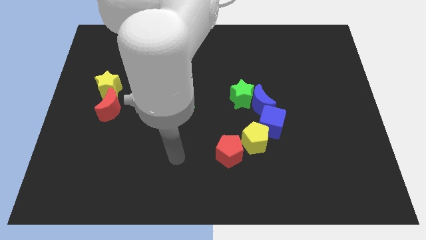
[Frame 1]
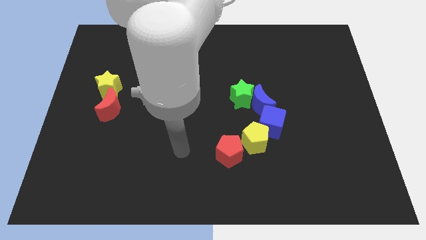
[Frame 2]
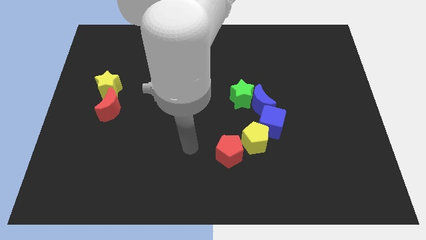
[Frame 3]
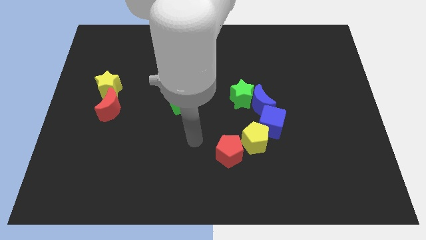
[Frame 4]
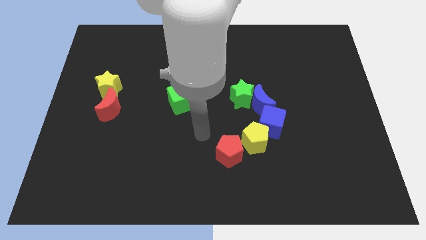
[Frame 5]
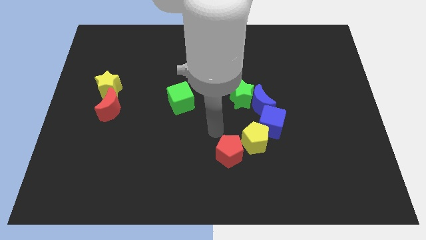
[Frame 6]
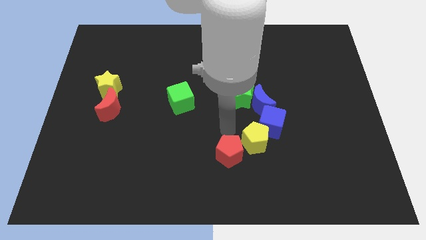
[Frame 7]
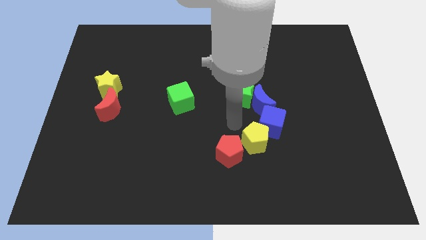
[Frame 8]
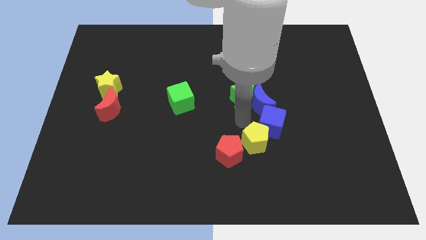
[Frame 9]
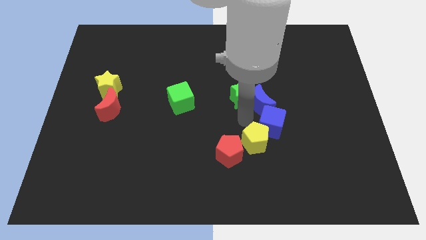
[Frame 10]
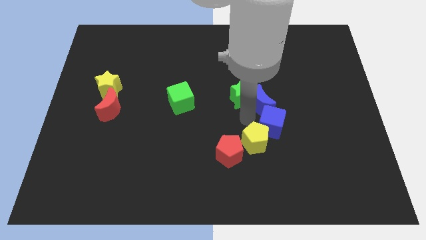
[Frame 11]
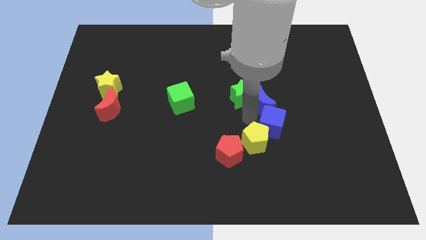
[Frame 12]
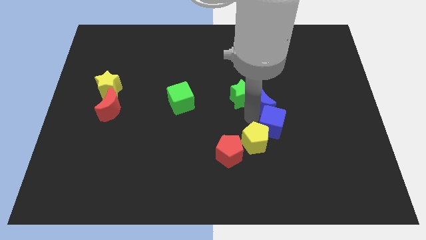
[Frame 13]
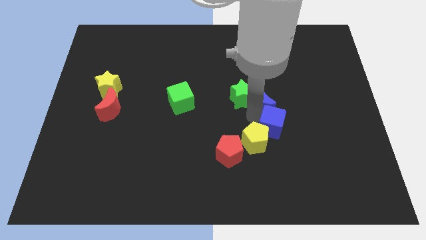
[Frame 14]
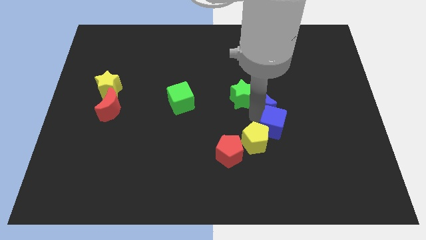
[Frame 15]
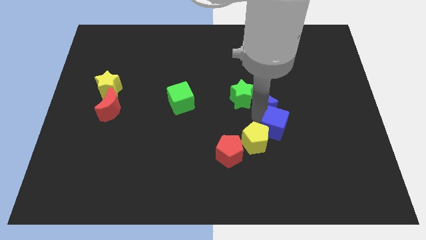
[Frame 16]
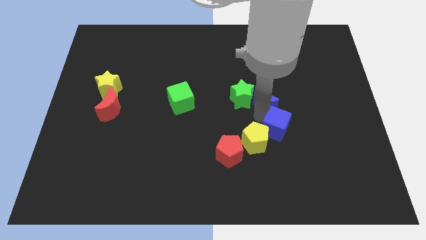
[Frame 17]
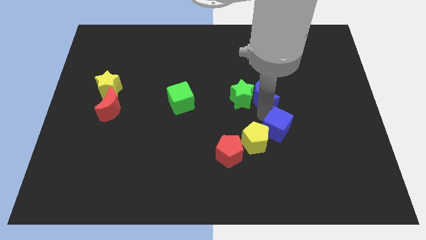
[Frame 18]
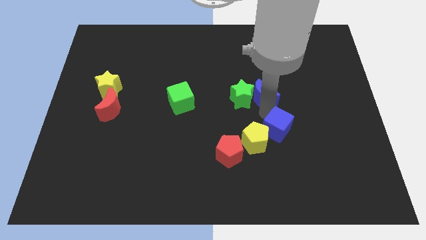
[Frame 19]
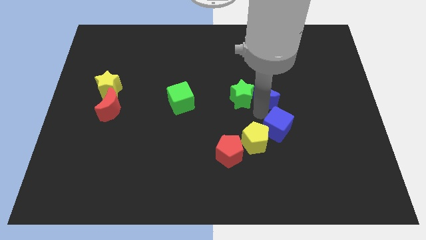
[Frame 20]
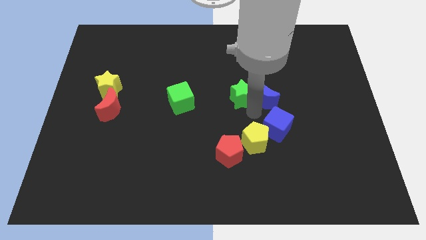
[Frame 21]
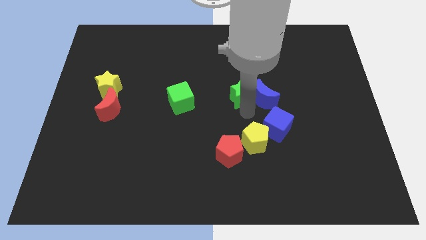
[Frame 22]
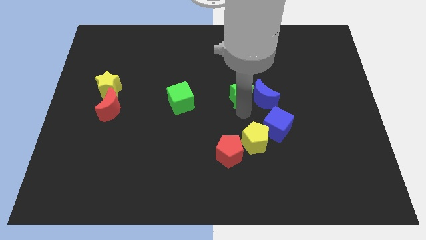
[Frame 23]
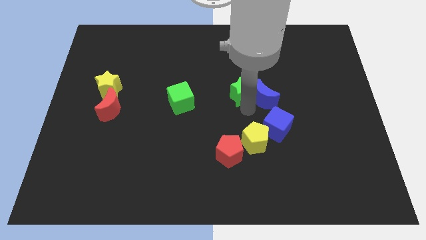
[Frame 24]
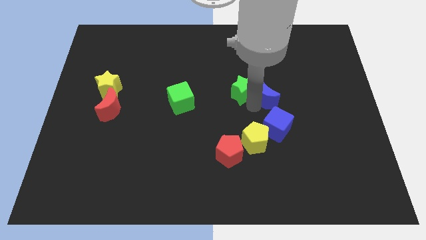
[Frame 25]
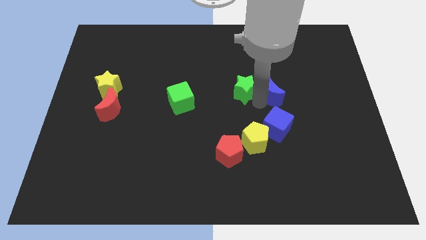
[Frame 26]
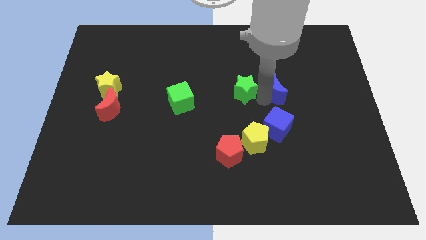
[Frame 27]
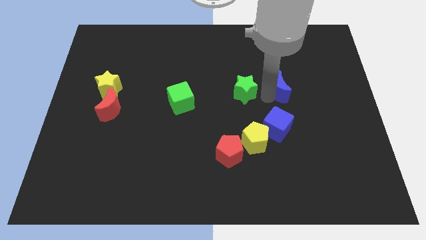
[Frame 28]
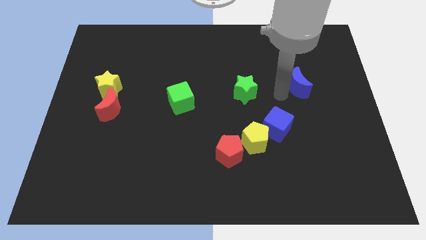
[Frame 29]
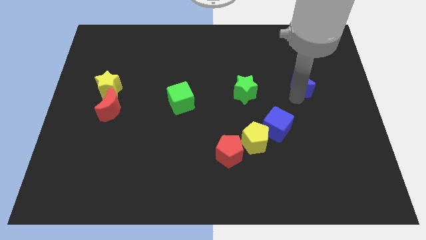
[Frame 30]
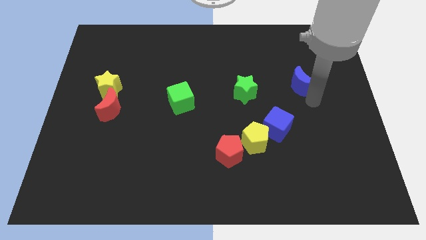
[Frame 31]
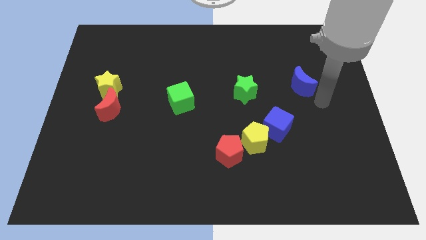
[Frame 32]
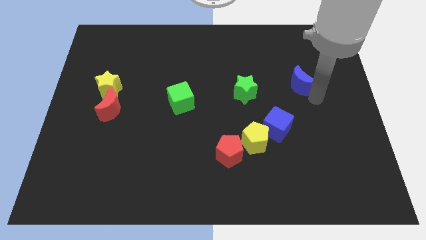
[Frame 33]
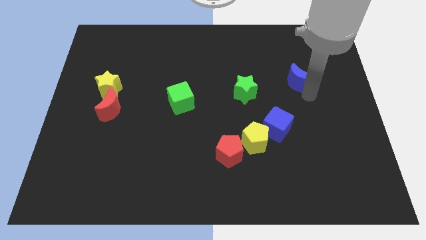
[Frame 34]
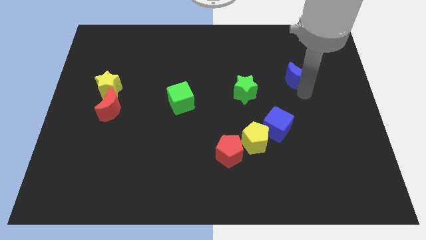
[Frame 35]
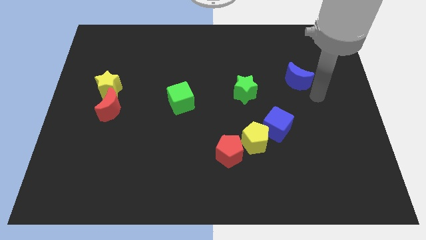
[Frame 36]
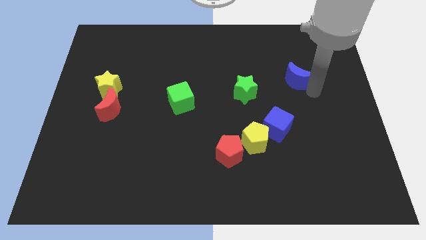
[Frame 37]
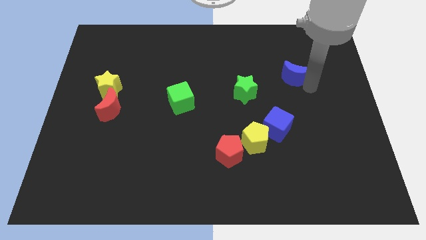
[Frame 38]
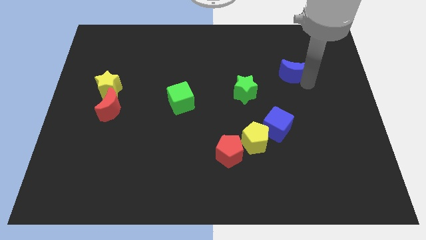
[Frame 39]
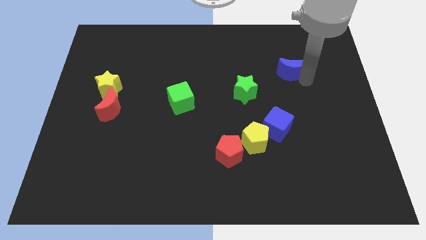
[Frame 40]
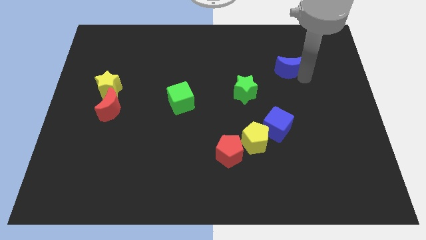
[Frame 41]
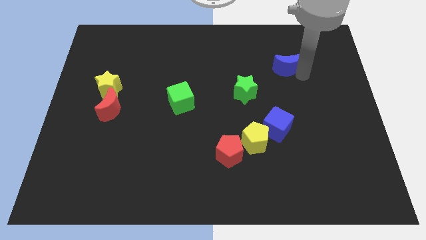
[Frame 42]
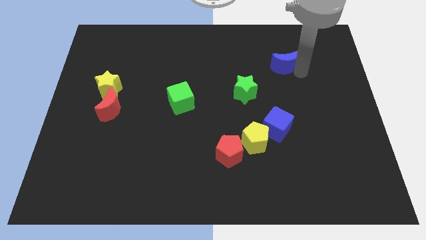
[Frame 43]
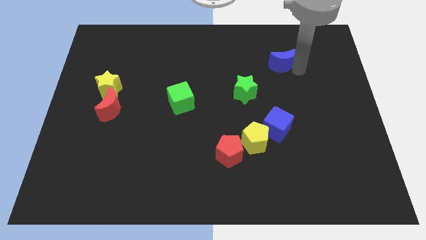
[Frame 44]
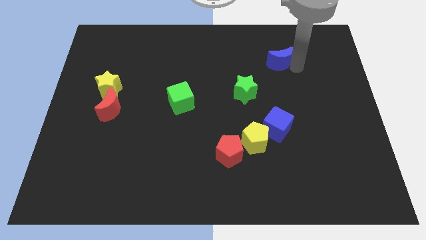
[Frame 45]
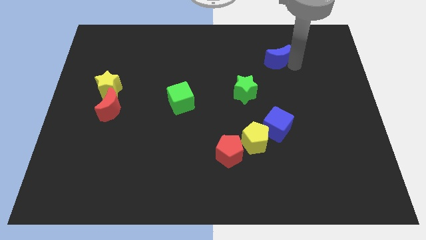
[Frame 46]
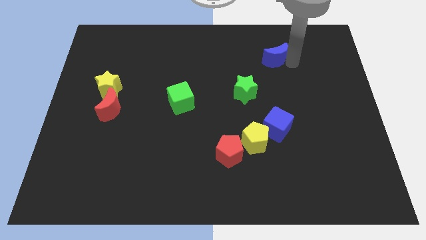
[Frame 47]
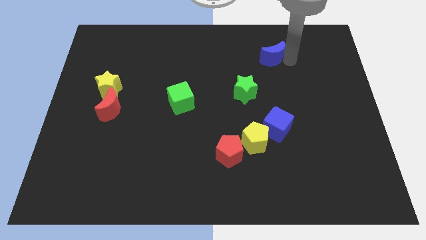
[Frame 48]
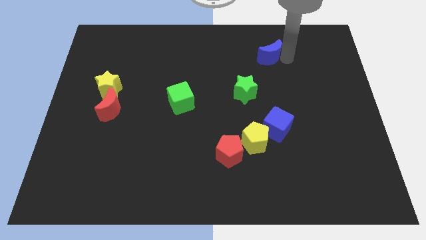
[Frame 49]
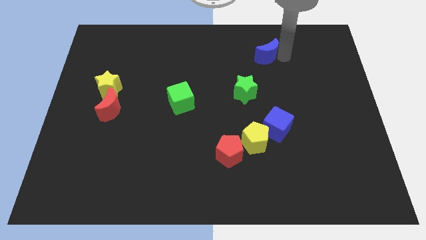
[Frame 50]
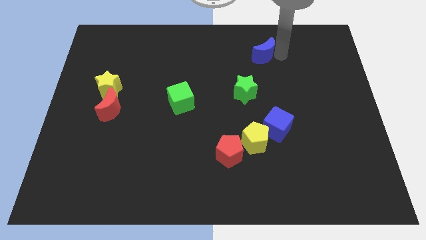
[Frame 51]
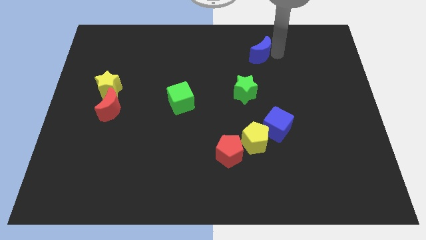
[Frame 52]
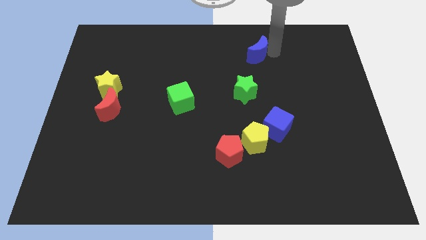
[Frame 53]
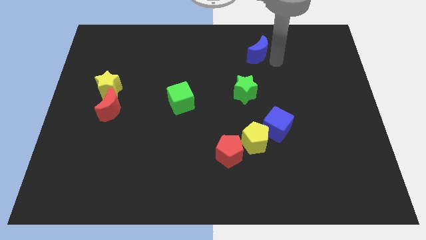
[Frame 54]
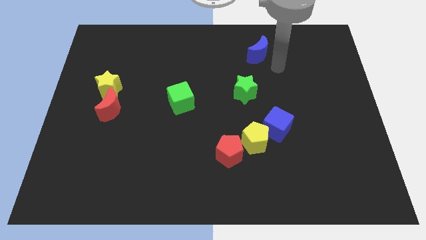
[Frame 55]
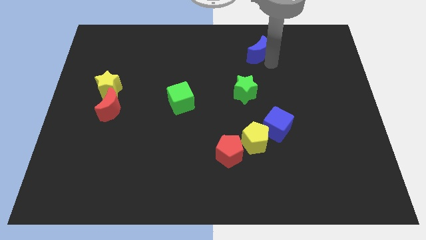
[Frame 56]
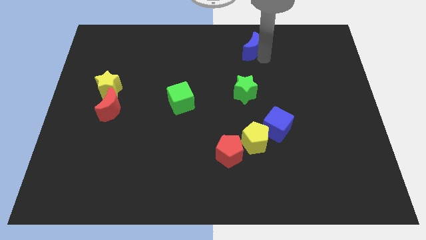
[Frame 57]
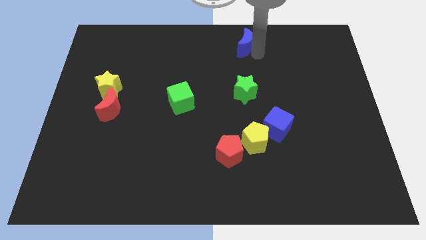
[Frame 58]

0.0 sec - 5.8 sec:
move the blue moon to the top

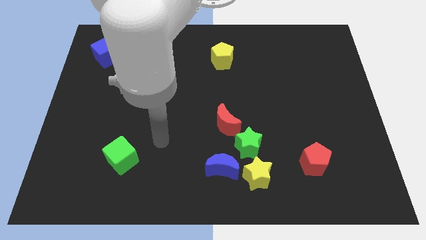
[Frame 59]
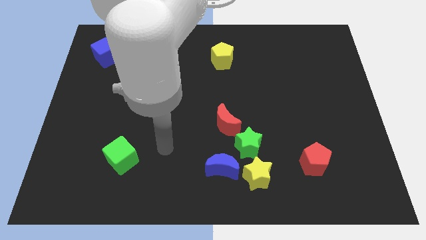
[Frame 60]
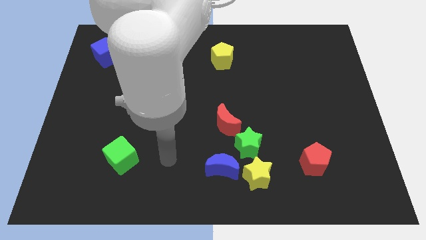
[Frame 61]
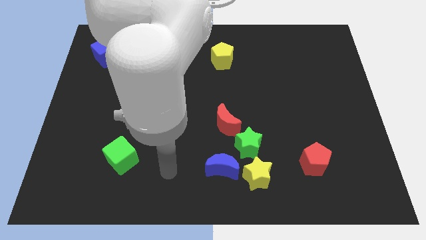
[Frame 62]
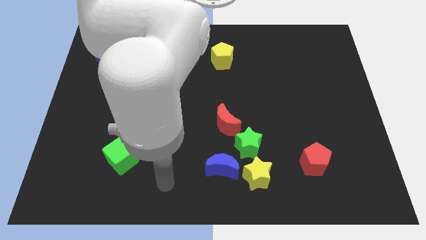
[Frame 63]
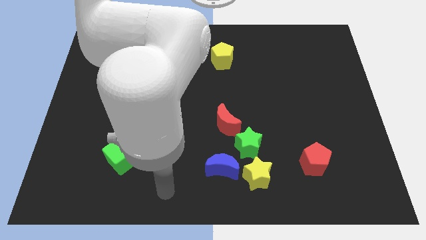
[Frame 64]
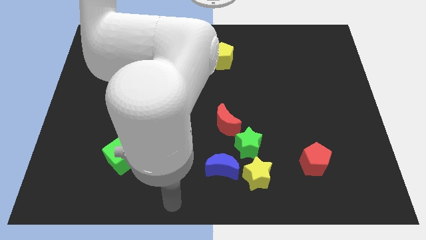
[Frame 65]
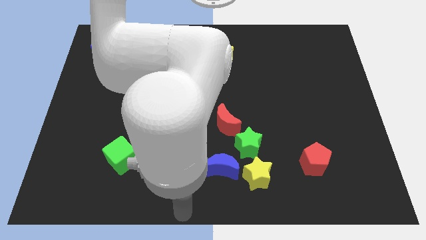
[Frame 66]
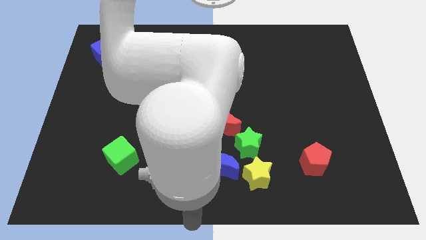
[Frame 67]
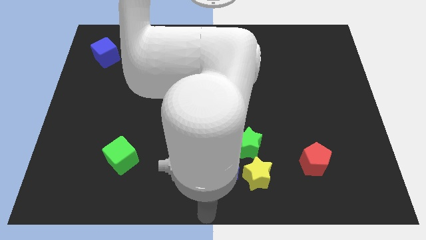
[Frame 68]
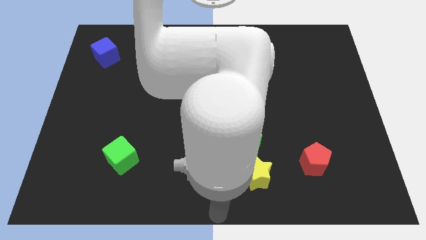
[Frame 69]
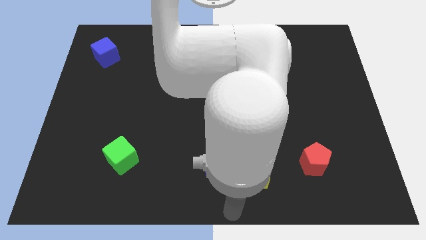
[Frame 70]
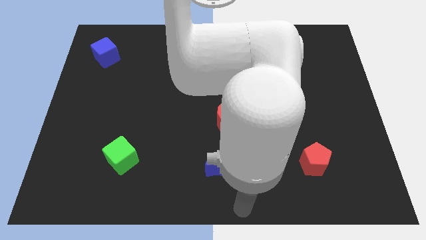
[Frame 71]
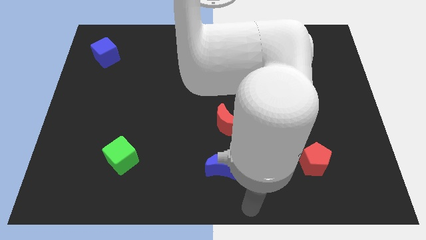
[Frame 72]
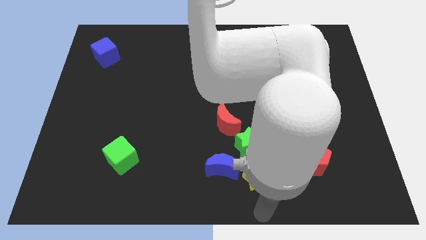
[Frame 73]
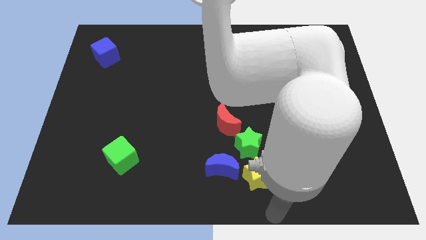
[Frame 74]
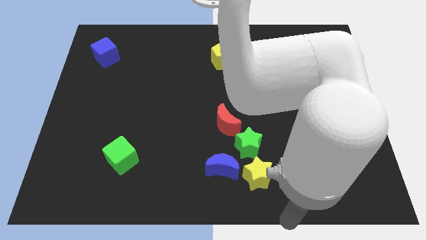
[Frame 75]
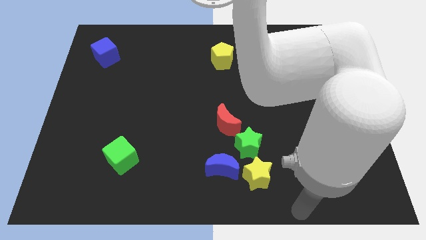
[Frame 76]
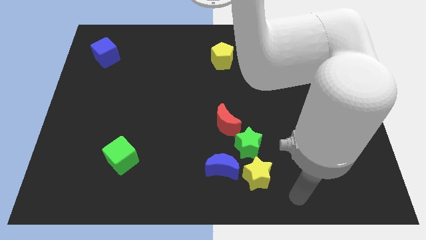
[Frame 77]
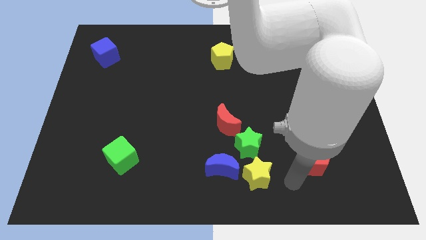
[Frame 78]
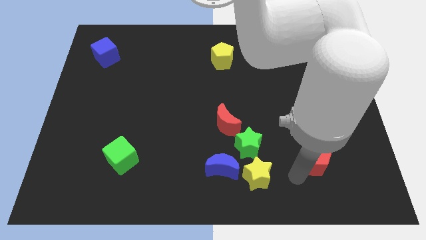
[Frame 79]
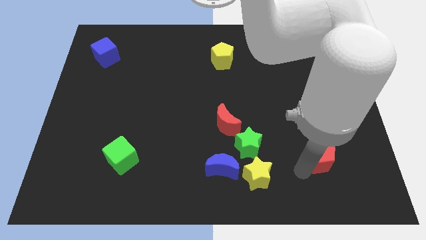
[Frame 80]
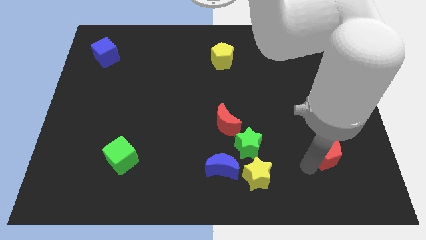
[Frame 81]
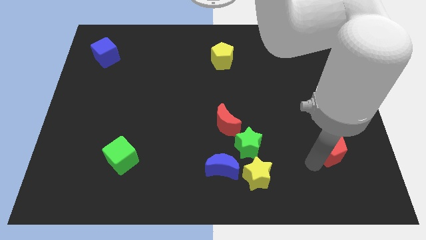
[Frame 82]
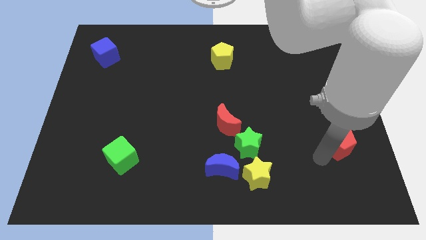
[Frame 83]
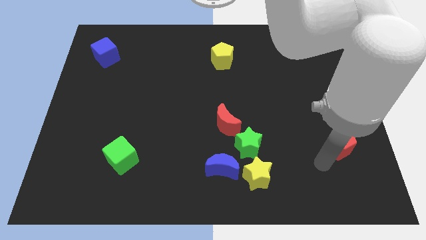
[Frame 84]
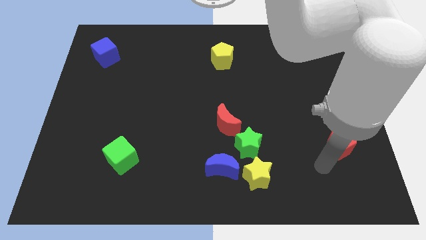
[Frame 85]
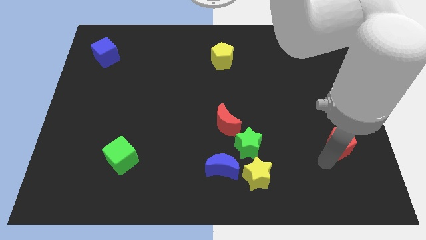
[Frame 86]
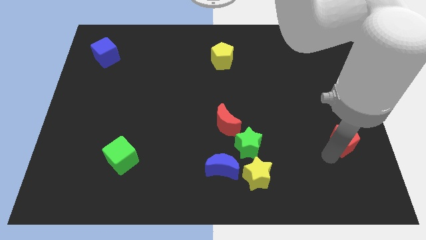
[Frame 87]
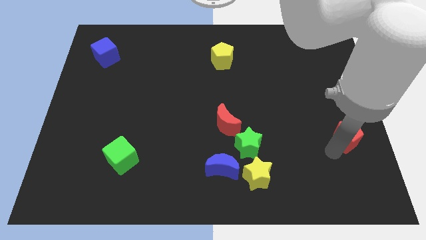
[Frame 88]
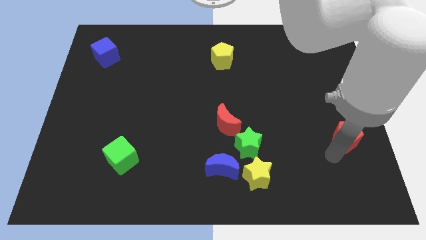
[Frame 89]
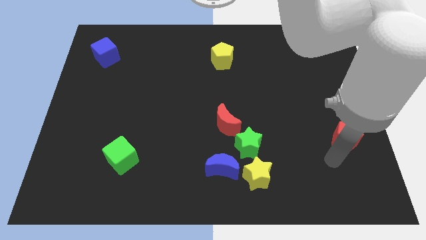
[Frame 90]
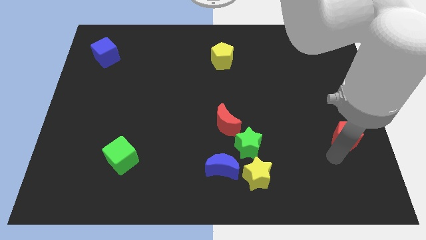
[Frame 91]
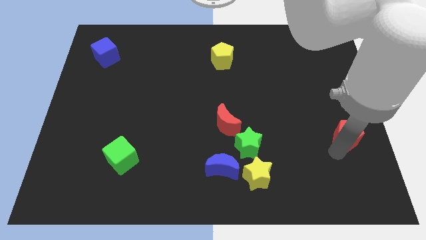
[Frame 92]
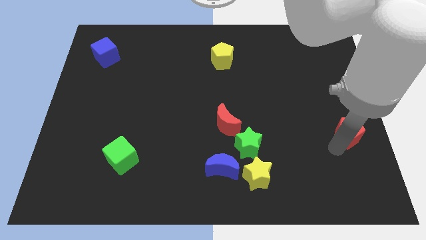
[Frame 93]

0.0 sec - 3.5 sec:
push the red pentagon to the right side
